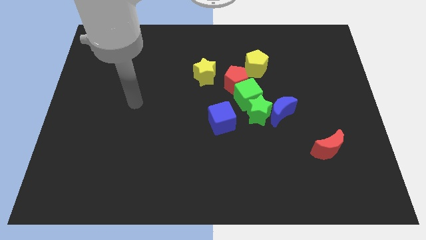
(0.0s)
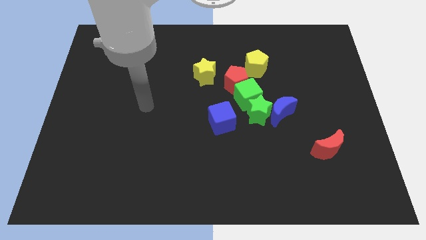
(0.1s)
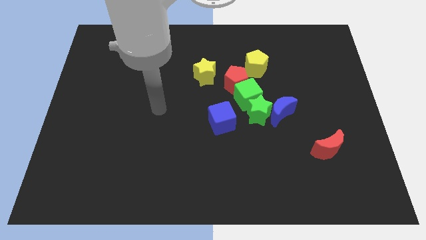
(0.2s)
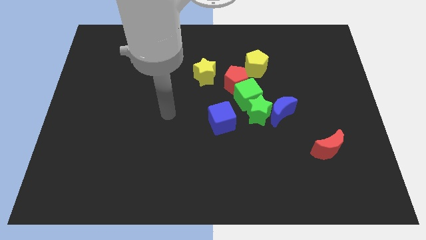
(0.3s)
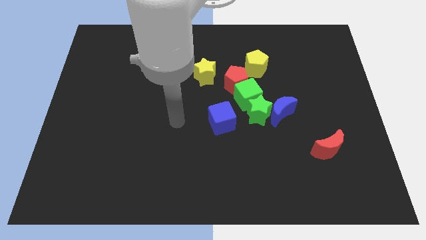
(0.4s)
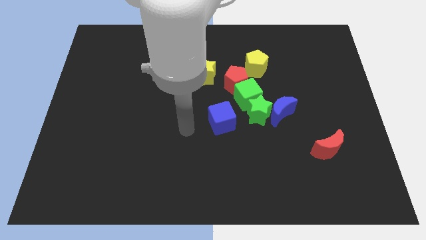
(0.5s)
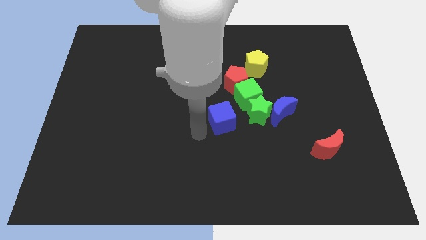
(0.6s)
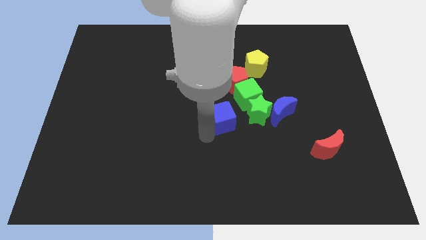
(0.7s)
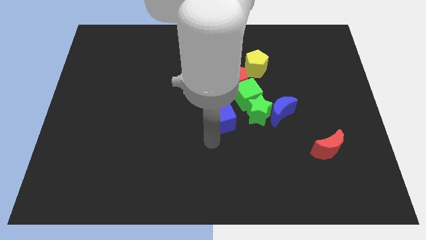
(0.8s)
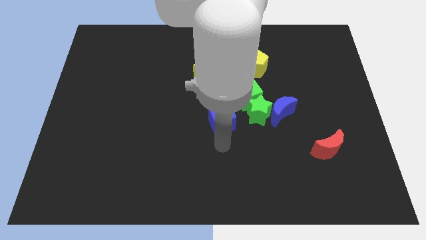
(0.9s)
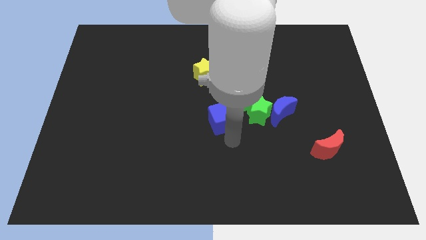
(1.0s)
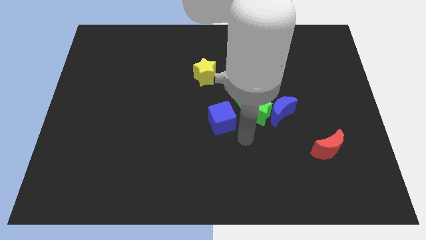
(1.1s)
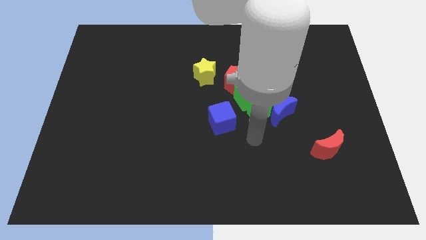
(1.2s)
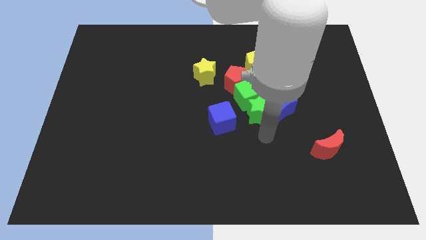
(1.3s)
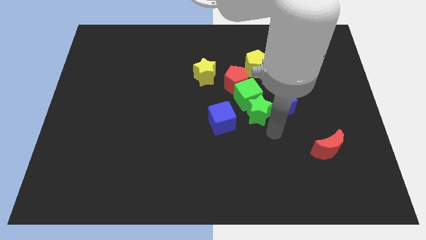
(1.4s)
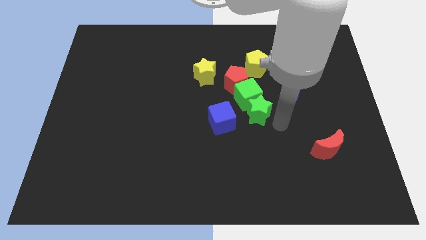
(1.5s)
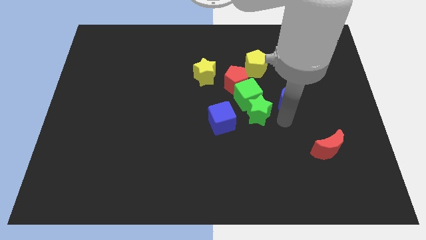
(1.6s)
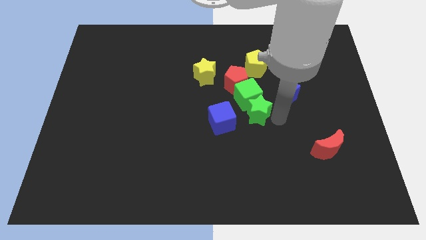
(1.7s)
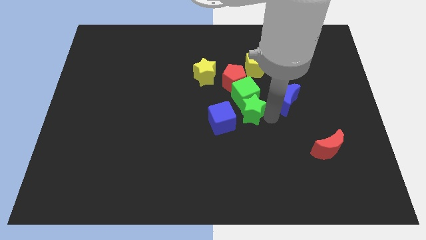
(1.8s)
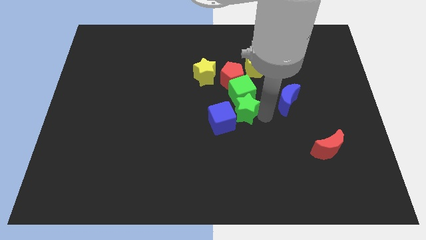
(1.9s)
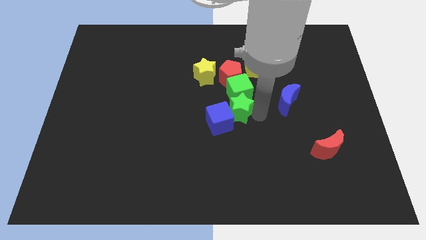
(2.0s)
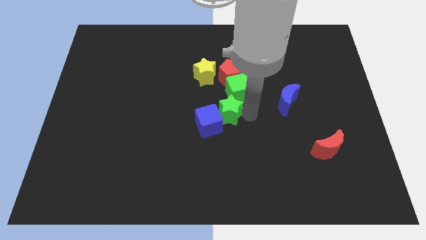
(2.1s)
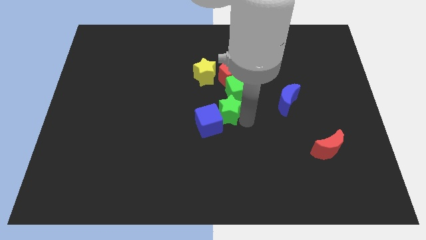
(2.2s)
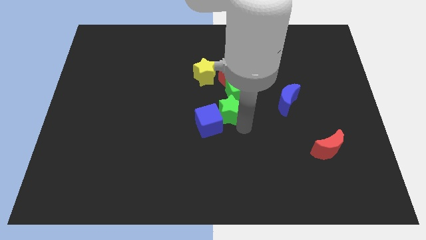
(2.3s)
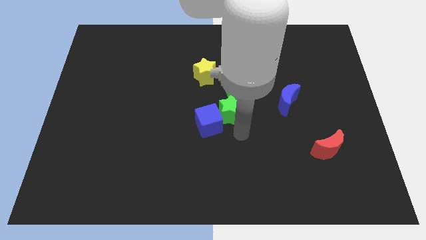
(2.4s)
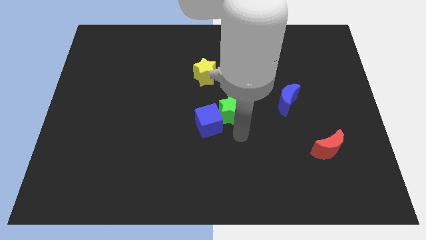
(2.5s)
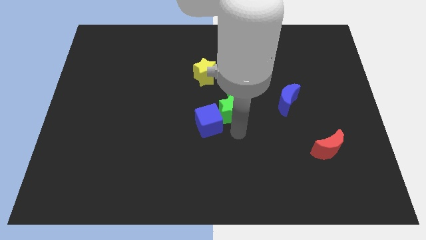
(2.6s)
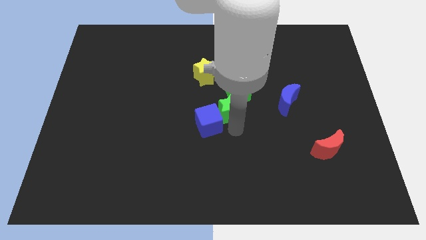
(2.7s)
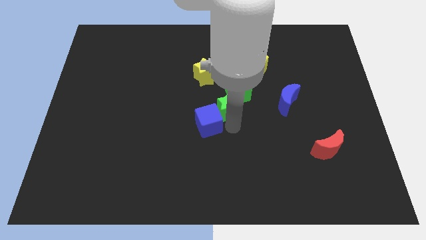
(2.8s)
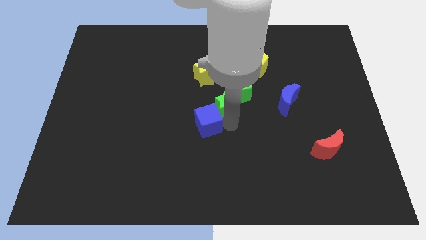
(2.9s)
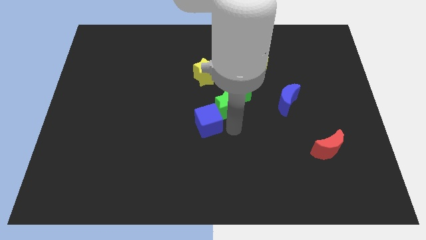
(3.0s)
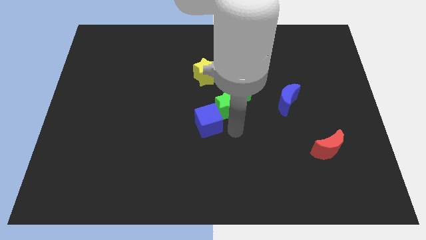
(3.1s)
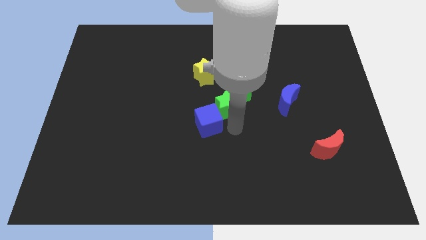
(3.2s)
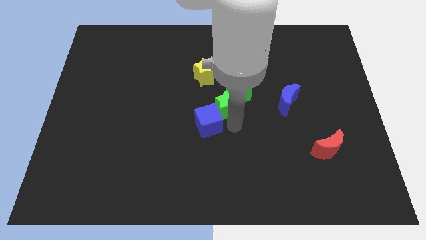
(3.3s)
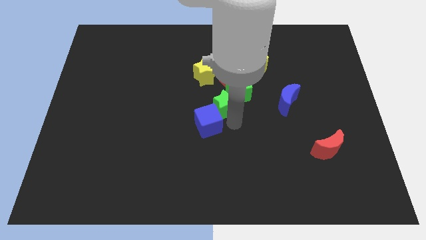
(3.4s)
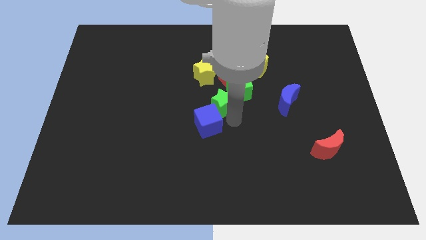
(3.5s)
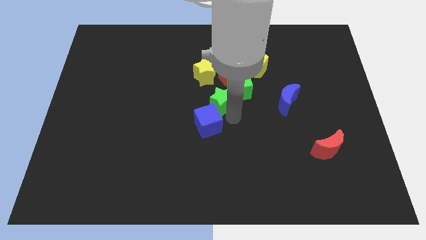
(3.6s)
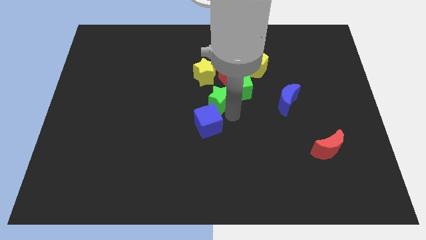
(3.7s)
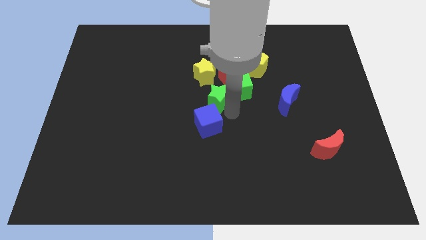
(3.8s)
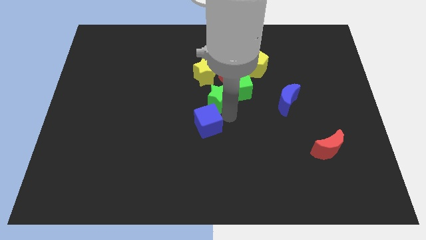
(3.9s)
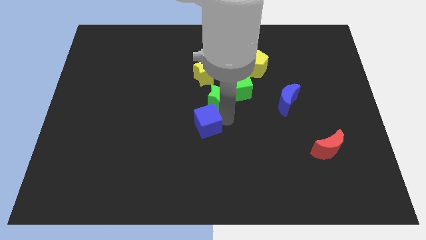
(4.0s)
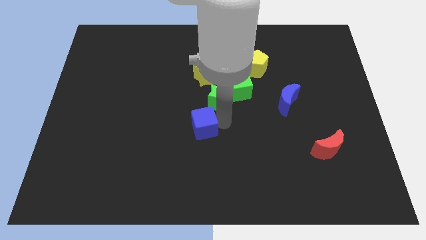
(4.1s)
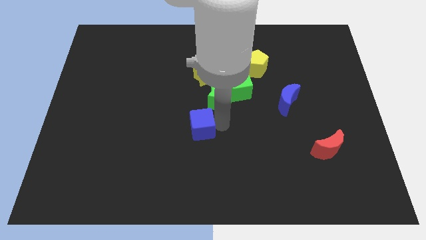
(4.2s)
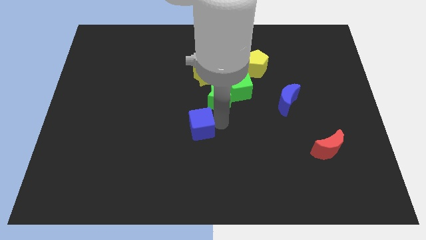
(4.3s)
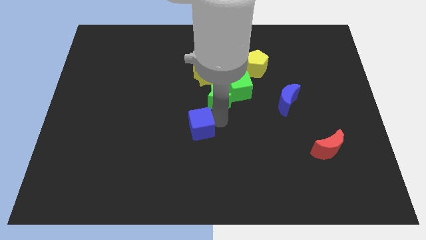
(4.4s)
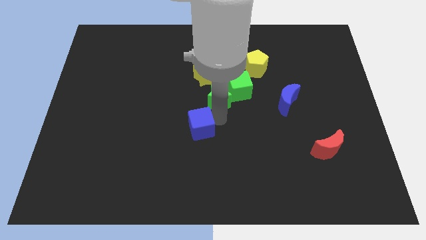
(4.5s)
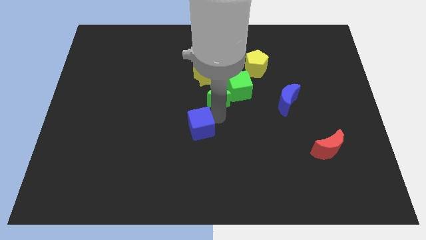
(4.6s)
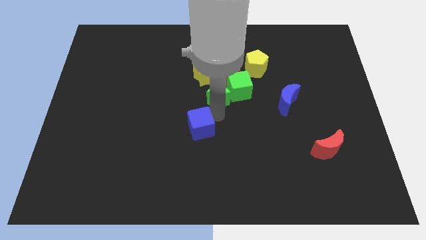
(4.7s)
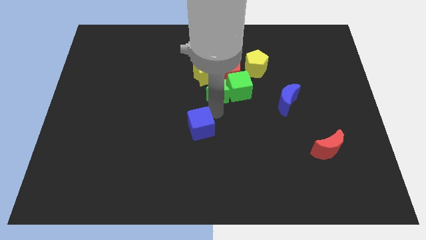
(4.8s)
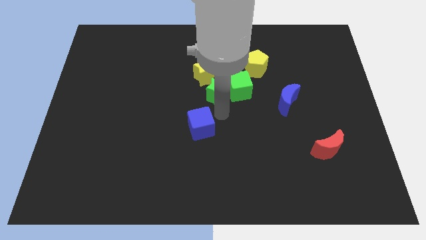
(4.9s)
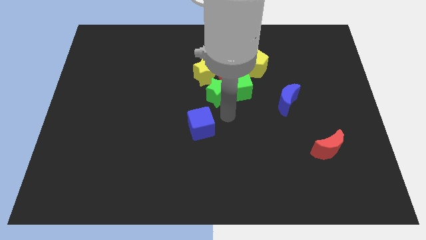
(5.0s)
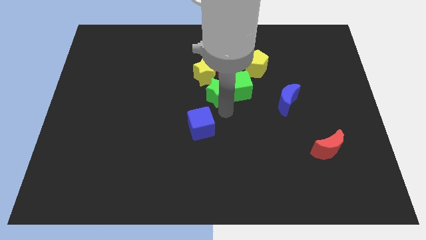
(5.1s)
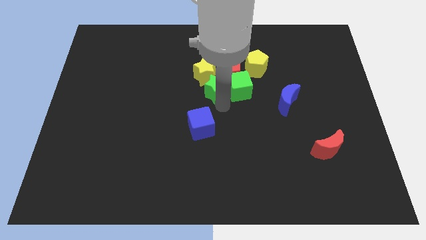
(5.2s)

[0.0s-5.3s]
push the green star close to the yellow star

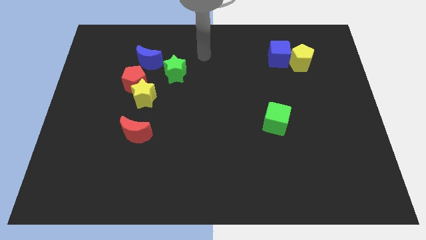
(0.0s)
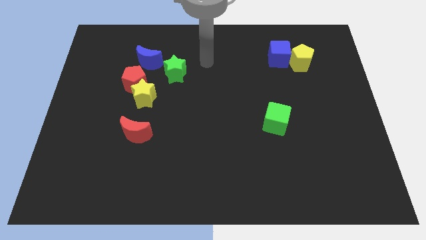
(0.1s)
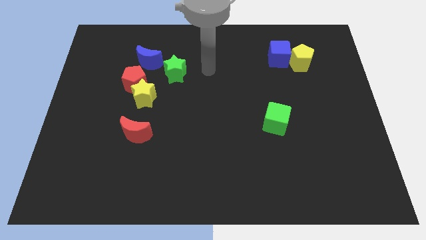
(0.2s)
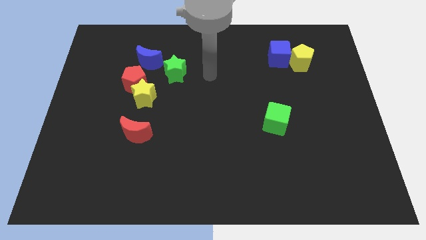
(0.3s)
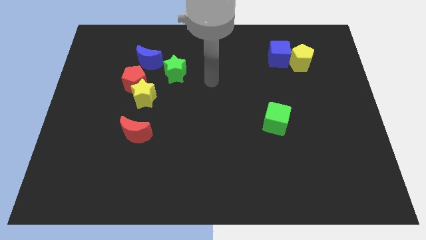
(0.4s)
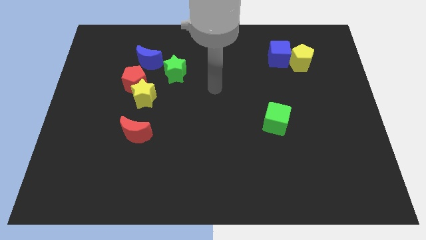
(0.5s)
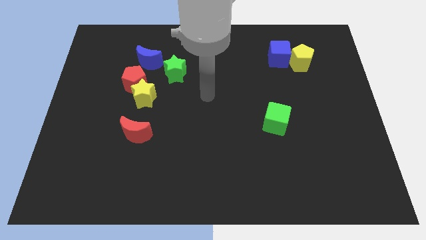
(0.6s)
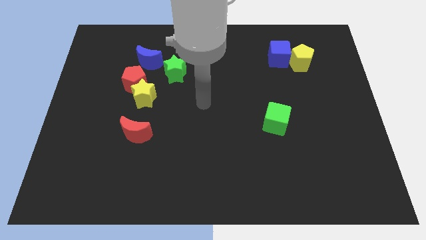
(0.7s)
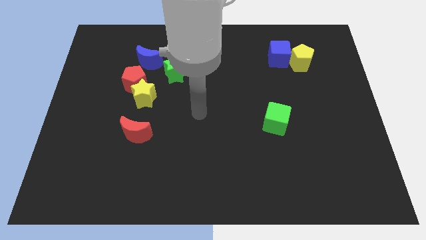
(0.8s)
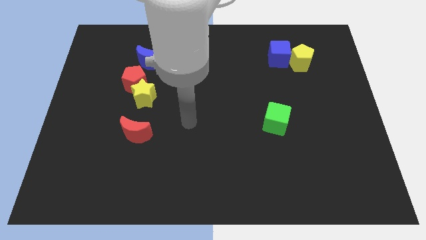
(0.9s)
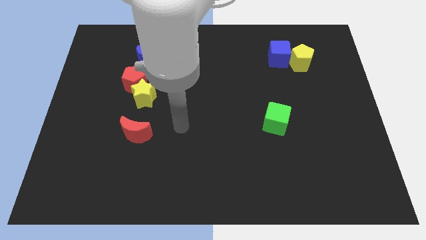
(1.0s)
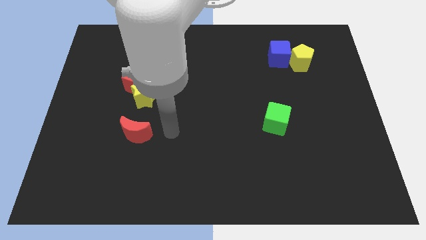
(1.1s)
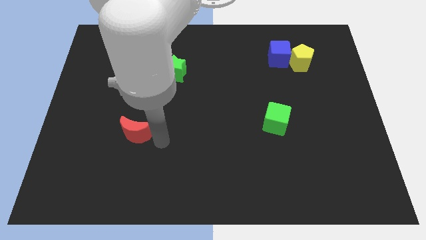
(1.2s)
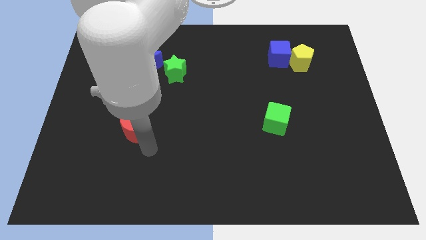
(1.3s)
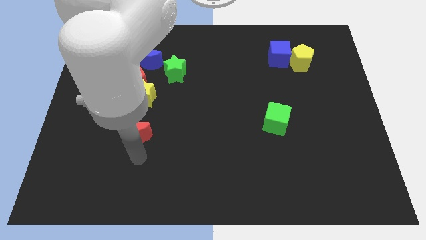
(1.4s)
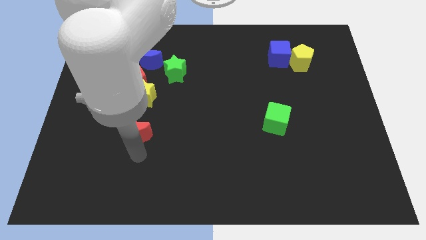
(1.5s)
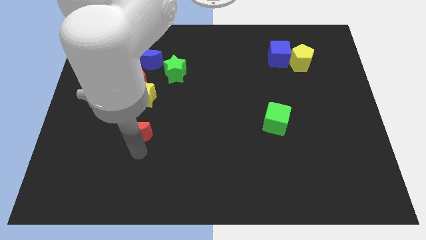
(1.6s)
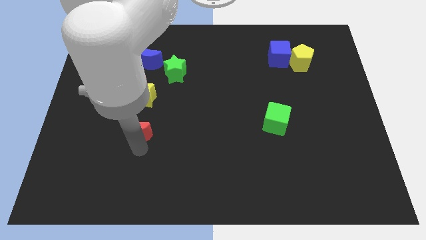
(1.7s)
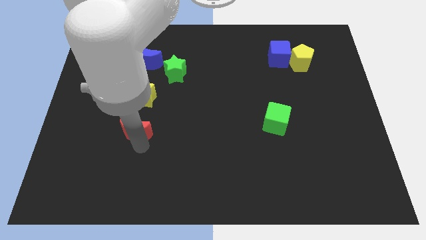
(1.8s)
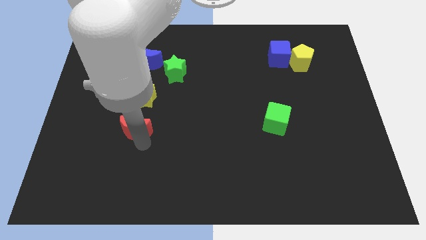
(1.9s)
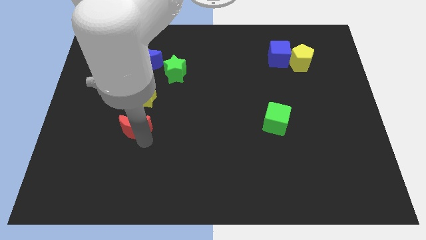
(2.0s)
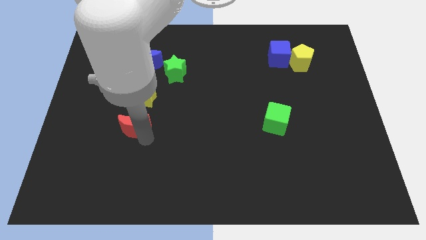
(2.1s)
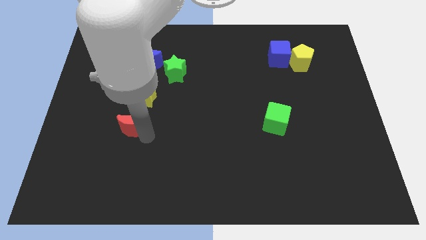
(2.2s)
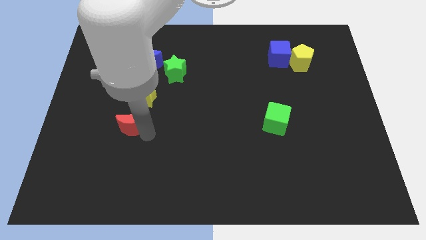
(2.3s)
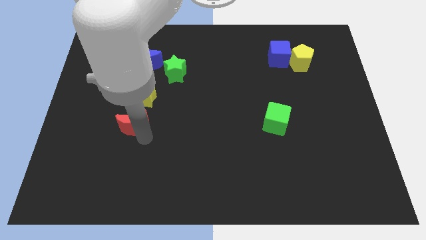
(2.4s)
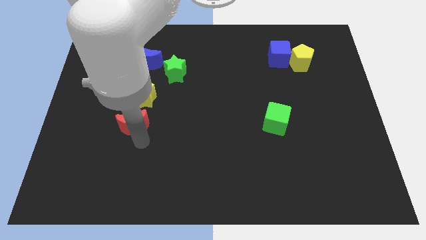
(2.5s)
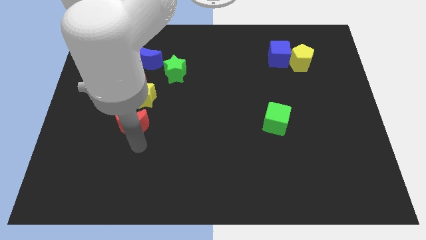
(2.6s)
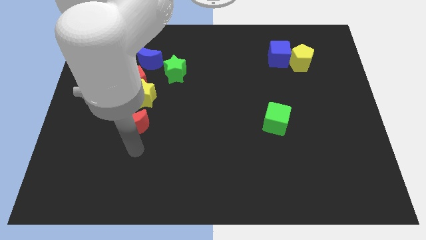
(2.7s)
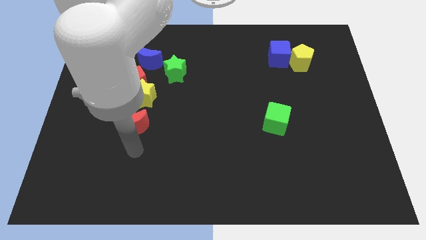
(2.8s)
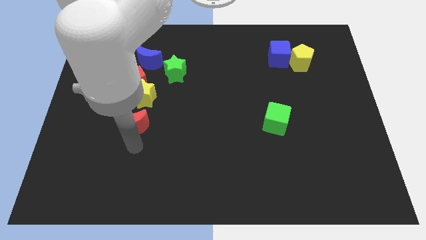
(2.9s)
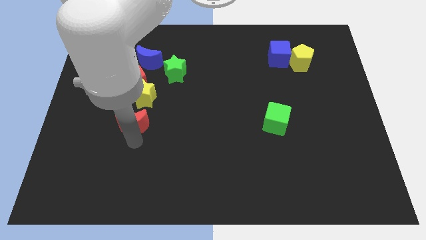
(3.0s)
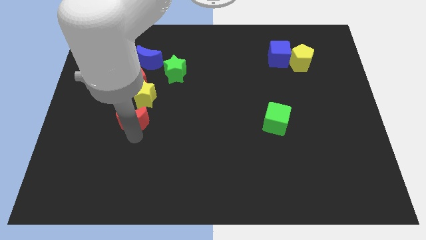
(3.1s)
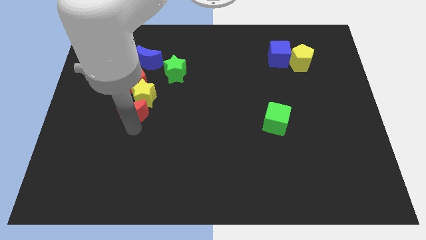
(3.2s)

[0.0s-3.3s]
push the red moon towards the yellow star
